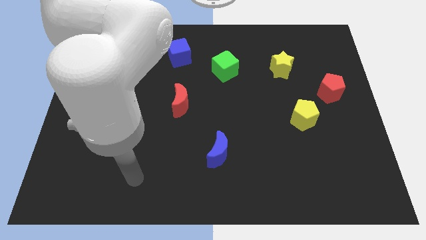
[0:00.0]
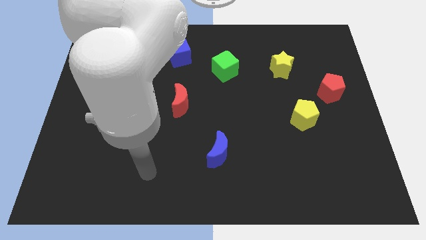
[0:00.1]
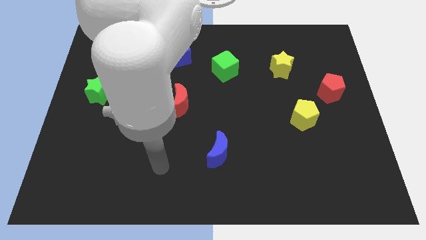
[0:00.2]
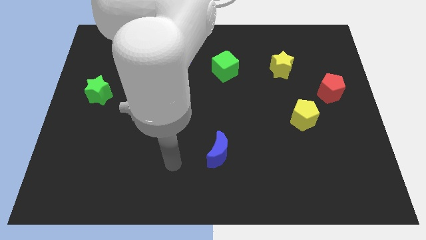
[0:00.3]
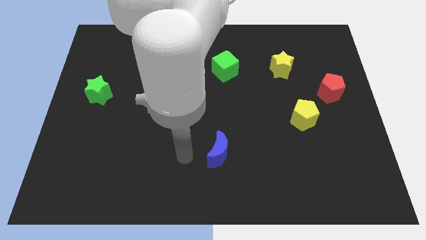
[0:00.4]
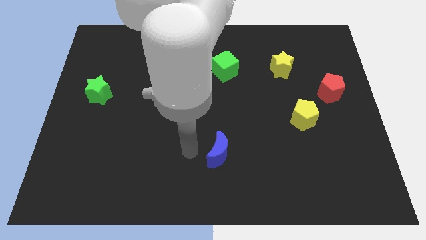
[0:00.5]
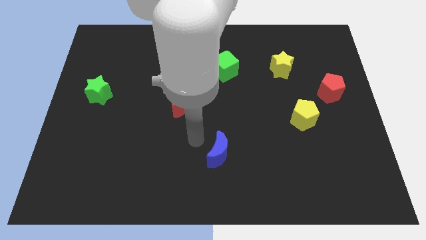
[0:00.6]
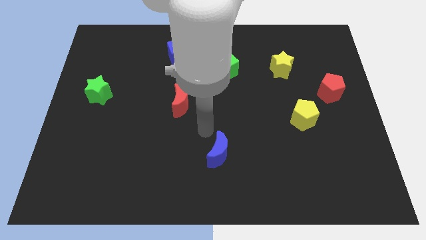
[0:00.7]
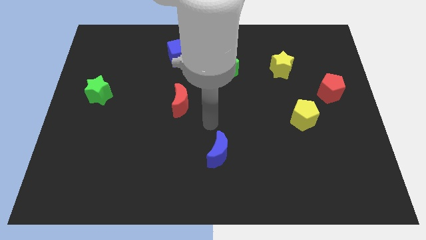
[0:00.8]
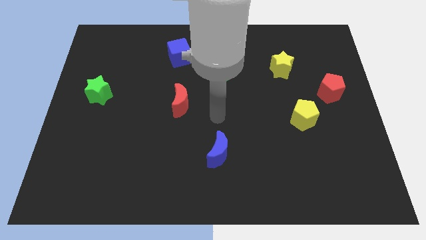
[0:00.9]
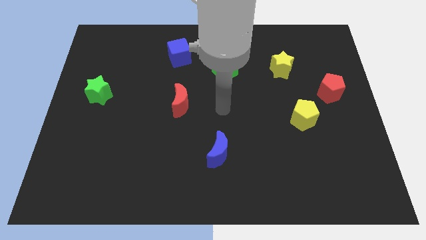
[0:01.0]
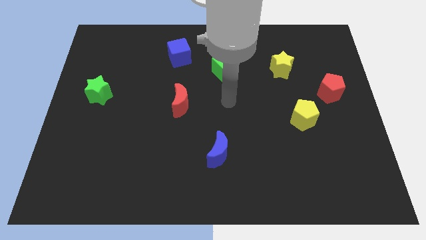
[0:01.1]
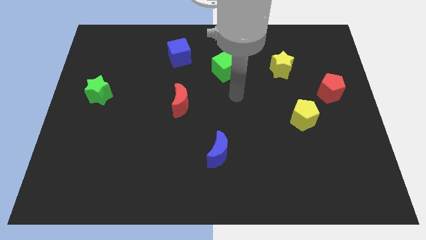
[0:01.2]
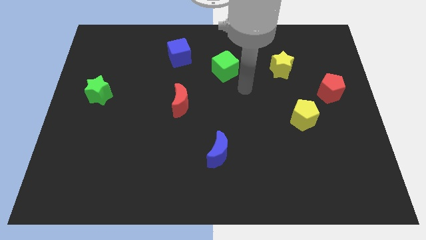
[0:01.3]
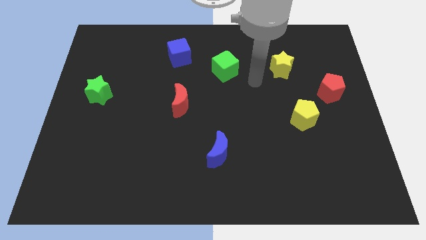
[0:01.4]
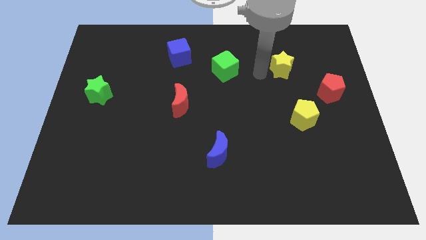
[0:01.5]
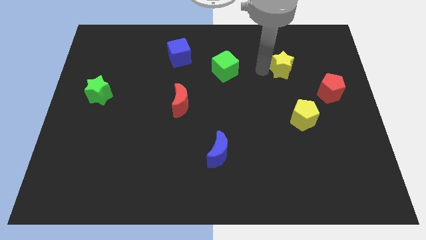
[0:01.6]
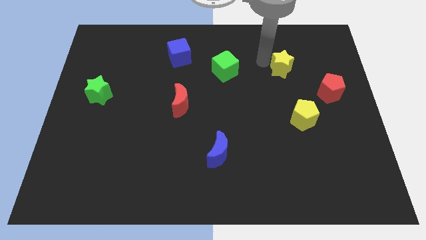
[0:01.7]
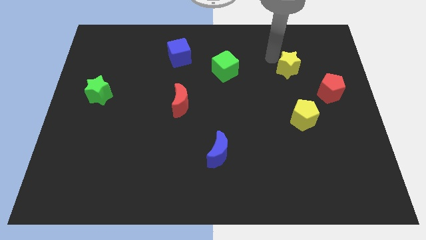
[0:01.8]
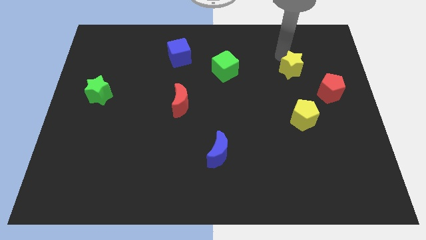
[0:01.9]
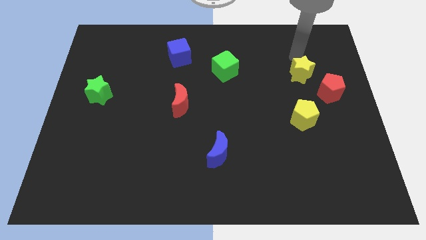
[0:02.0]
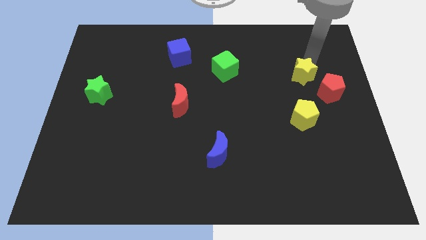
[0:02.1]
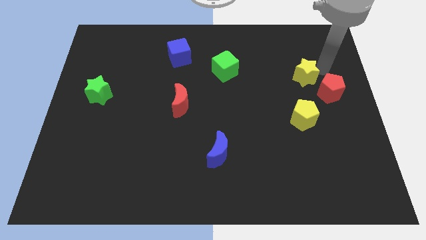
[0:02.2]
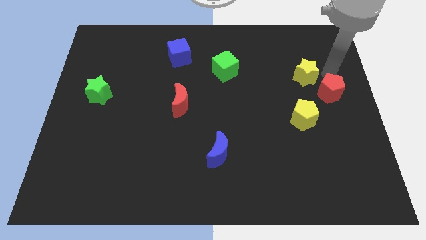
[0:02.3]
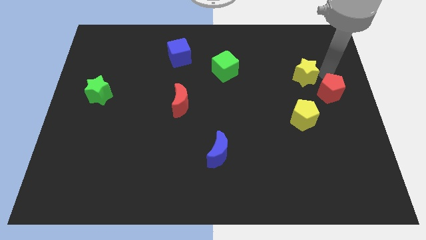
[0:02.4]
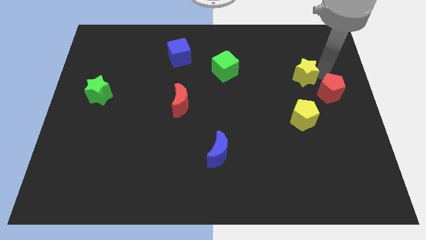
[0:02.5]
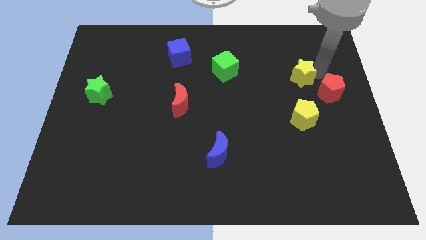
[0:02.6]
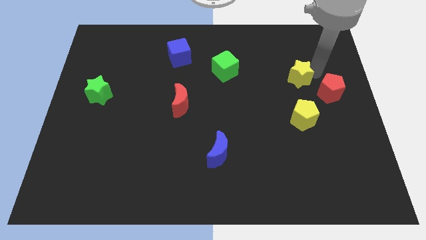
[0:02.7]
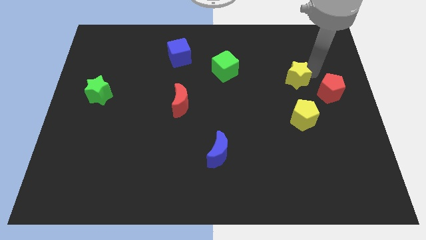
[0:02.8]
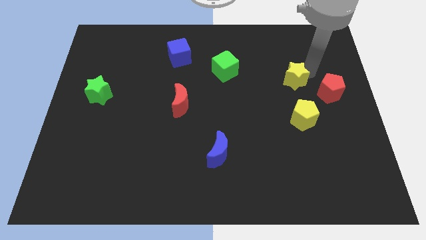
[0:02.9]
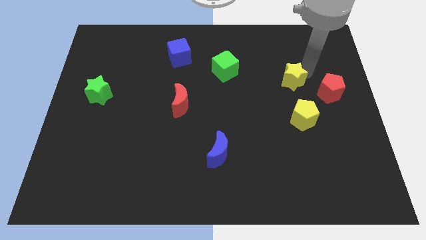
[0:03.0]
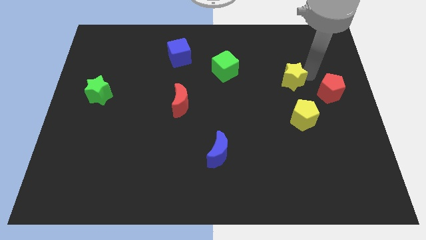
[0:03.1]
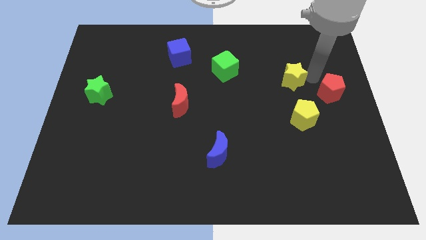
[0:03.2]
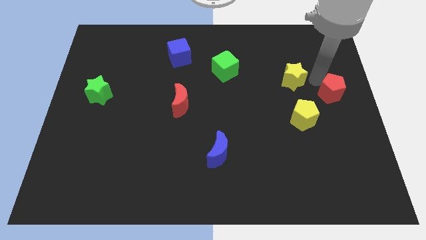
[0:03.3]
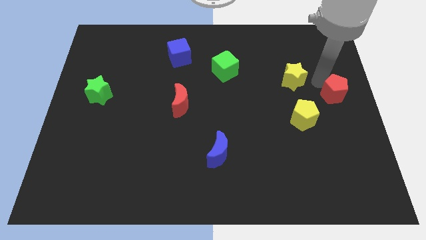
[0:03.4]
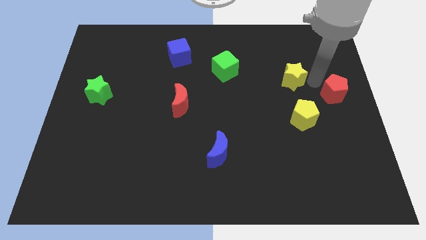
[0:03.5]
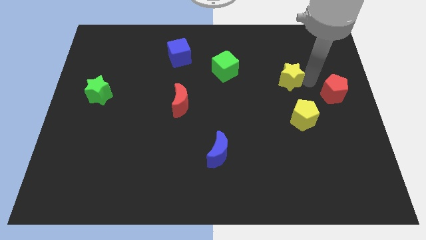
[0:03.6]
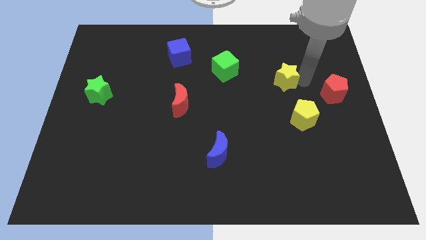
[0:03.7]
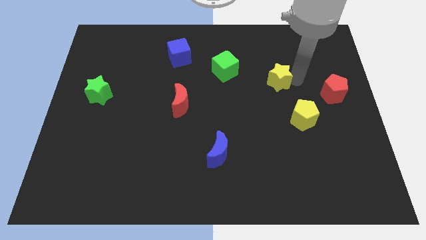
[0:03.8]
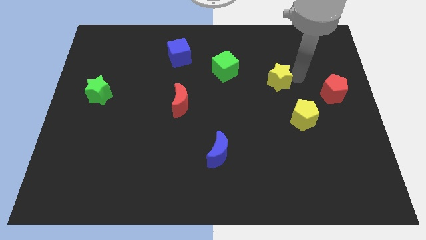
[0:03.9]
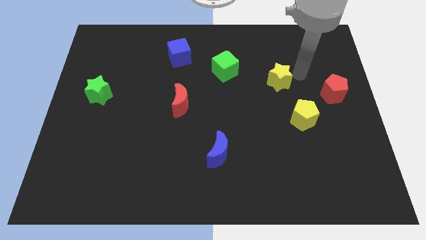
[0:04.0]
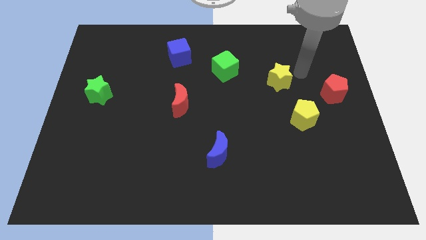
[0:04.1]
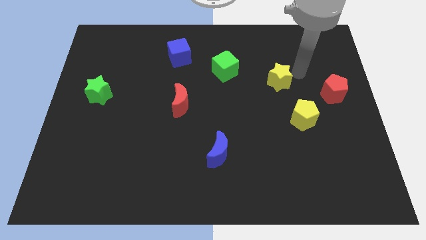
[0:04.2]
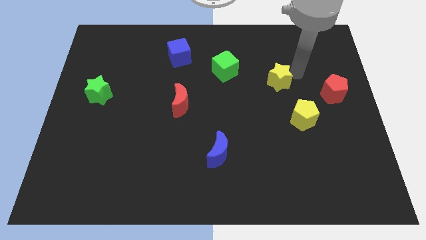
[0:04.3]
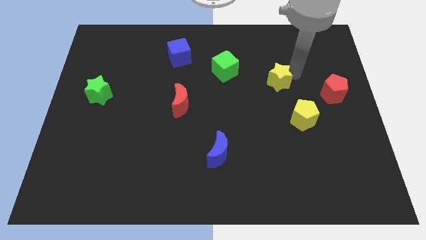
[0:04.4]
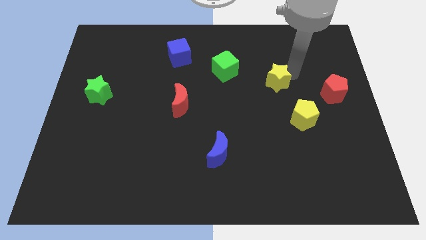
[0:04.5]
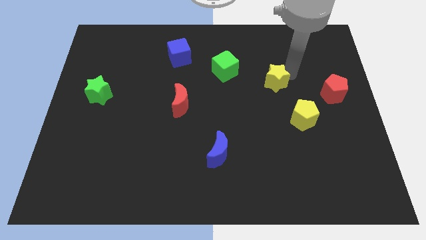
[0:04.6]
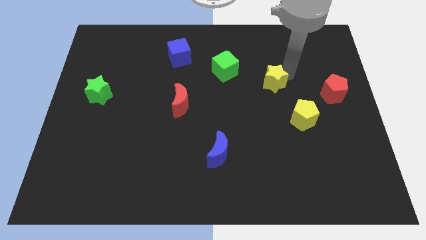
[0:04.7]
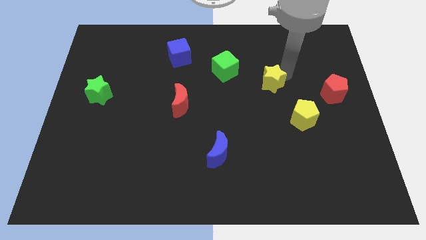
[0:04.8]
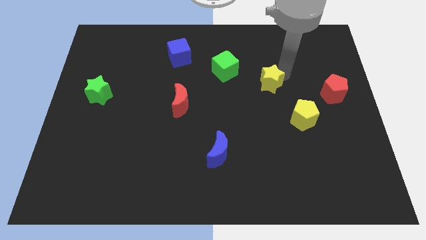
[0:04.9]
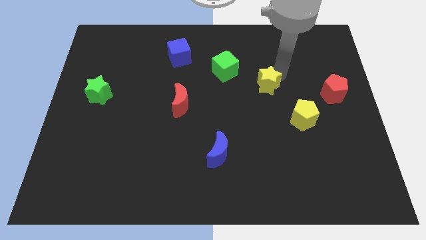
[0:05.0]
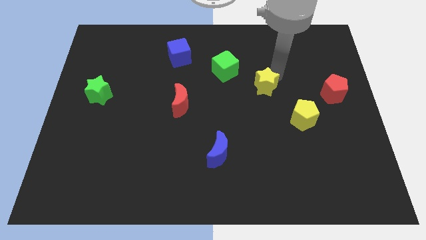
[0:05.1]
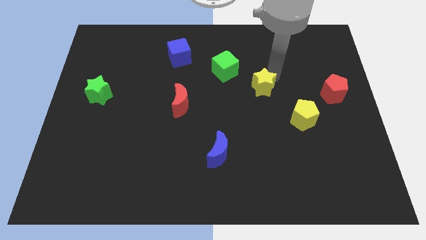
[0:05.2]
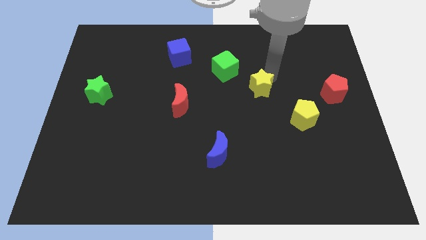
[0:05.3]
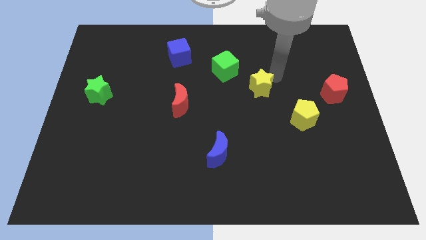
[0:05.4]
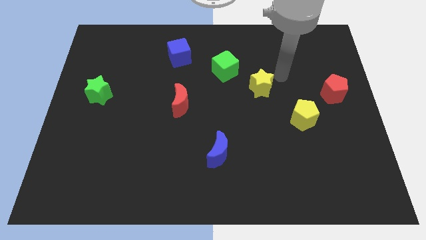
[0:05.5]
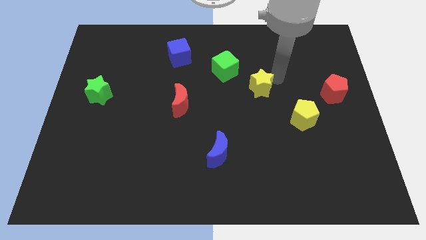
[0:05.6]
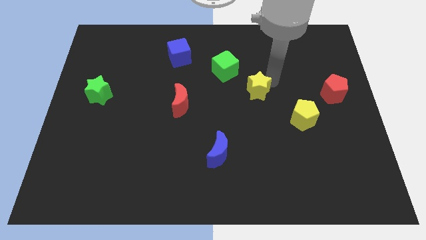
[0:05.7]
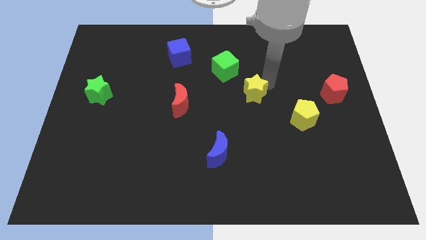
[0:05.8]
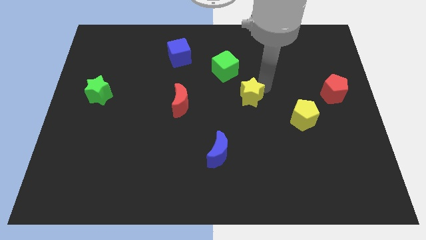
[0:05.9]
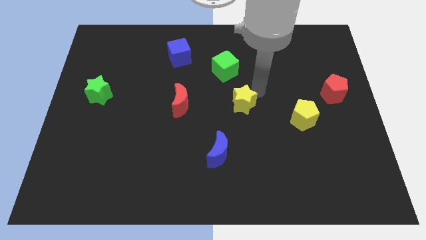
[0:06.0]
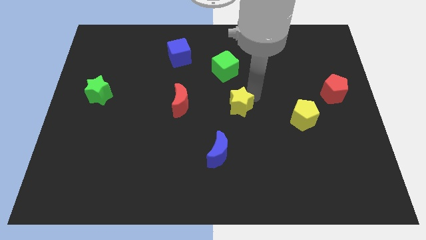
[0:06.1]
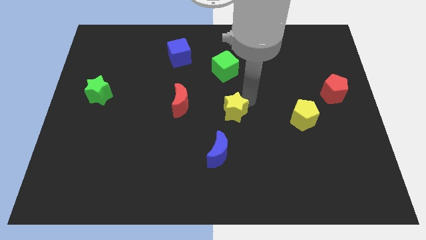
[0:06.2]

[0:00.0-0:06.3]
push the yellow star to the top of the blue moon

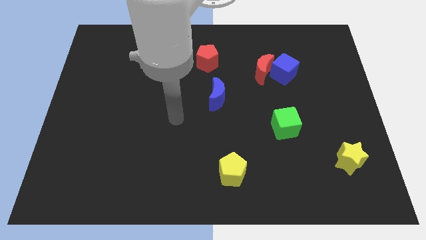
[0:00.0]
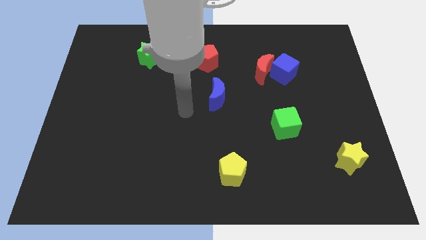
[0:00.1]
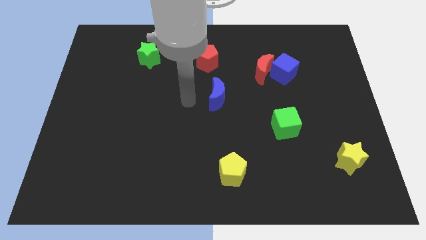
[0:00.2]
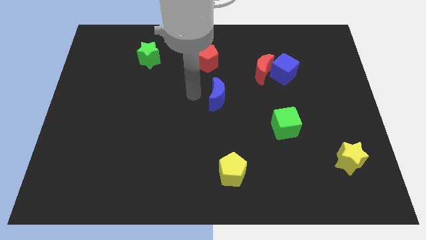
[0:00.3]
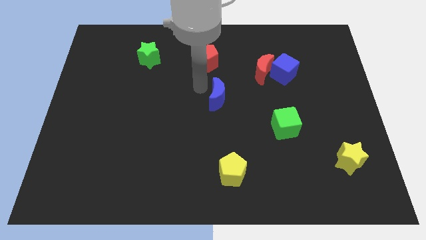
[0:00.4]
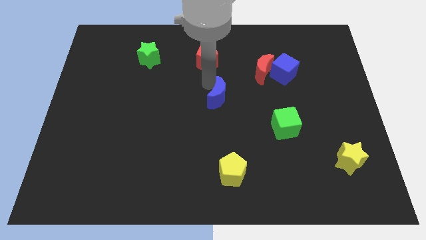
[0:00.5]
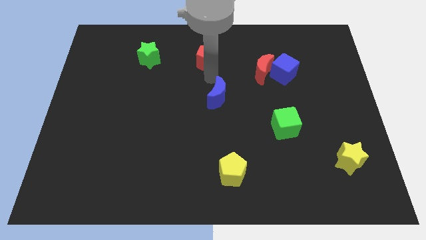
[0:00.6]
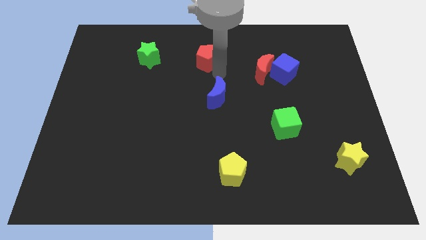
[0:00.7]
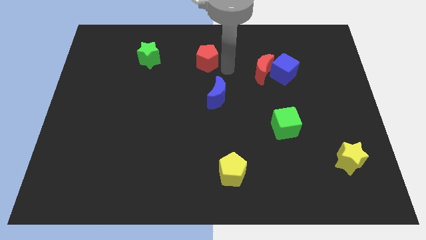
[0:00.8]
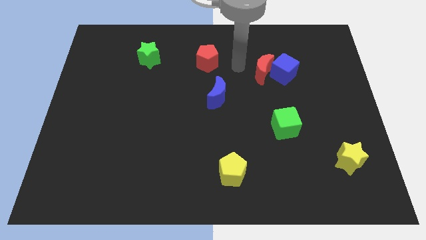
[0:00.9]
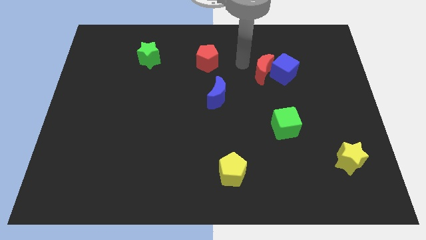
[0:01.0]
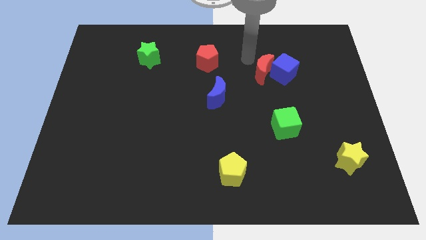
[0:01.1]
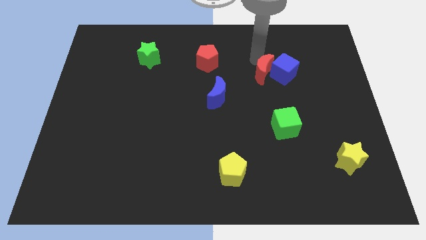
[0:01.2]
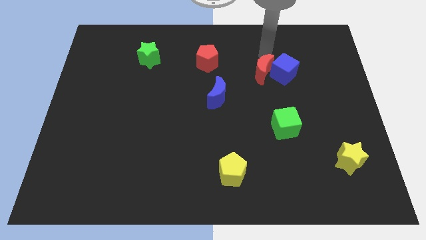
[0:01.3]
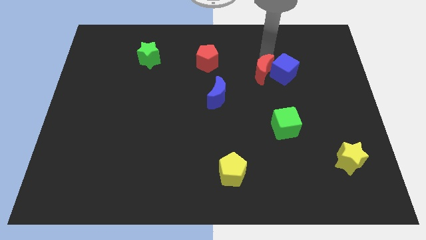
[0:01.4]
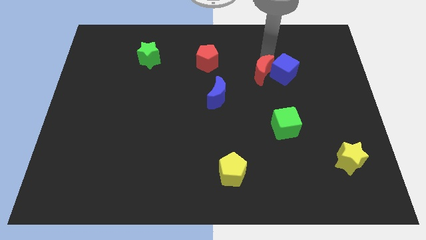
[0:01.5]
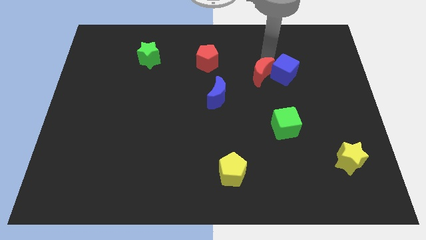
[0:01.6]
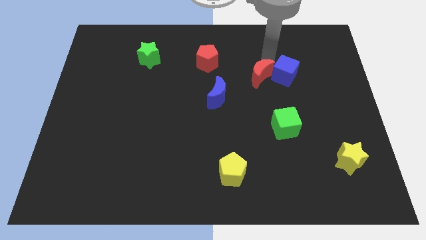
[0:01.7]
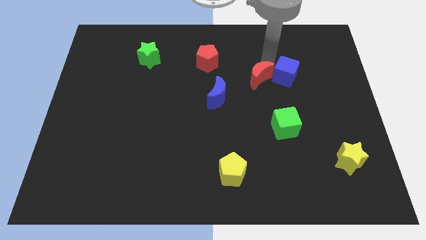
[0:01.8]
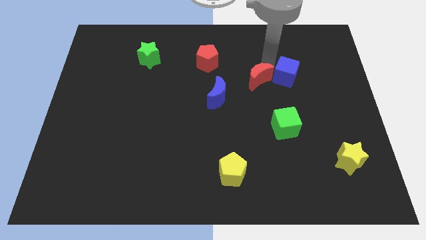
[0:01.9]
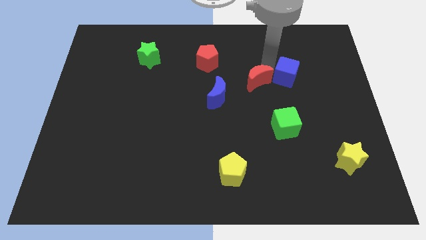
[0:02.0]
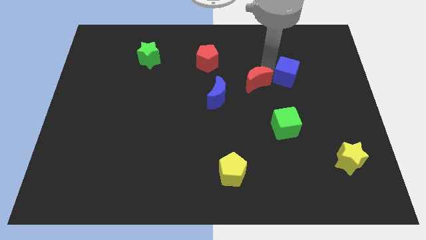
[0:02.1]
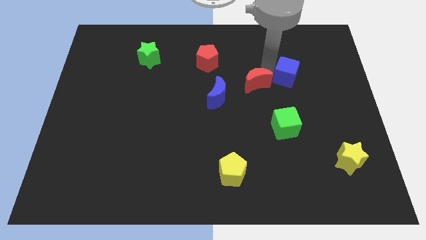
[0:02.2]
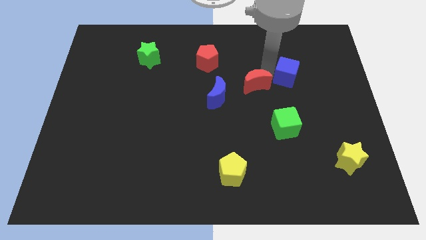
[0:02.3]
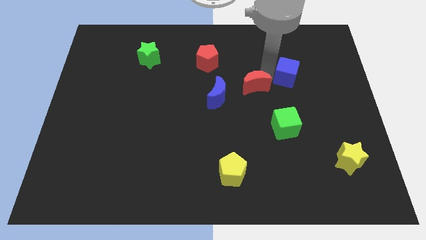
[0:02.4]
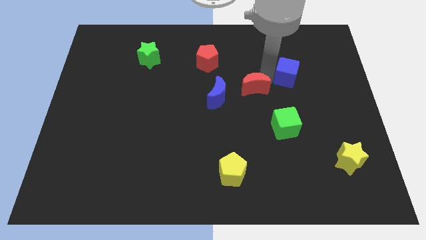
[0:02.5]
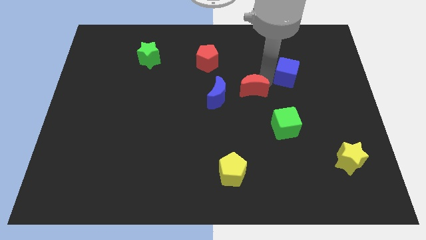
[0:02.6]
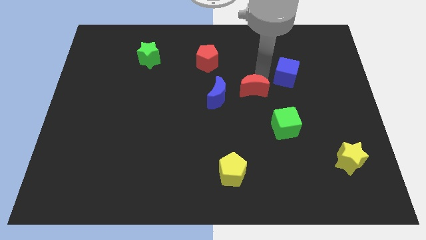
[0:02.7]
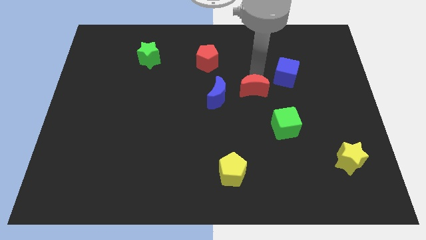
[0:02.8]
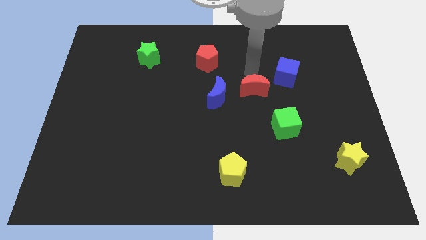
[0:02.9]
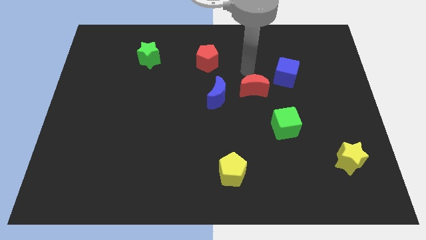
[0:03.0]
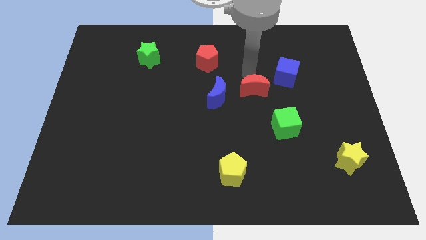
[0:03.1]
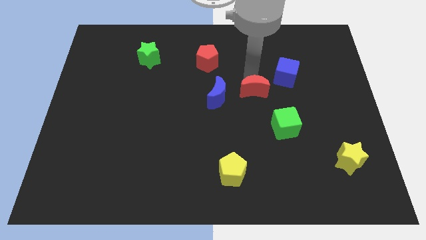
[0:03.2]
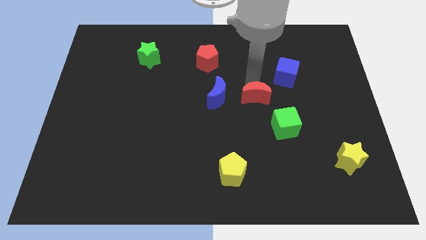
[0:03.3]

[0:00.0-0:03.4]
slide the red moon diagonally up and to the left of the green cube
